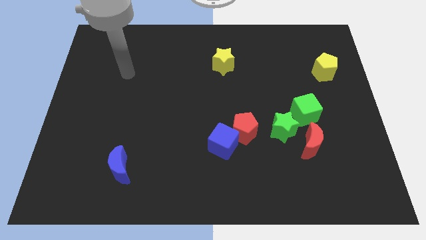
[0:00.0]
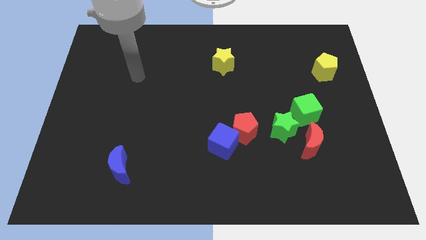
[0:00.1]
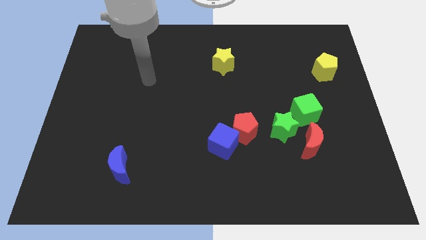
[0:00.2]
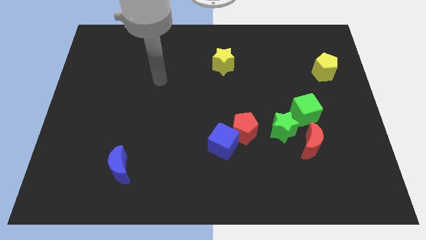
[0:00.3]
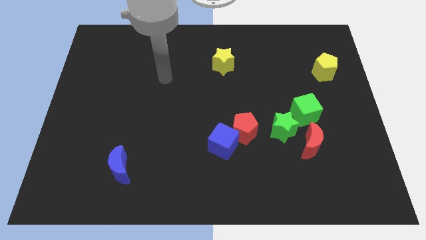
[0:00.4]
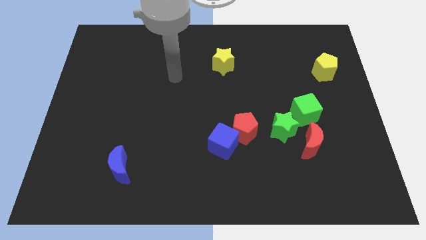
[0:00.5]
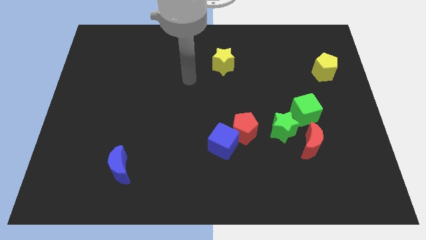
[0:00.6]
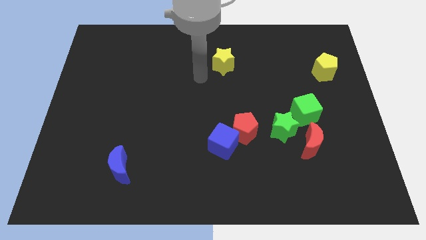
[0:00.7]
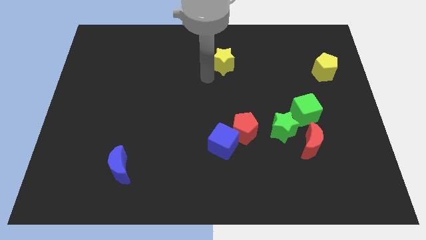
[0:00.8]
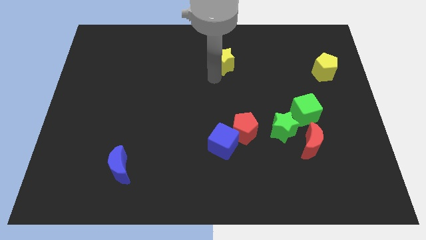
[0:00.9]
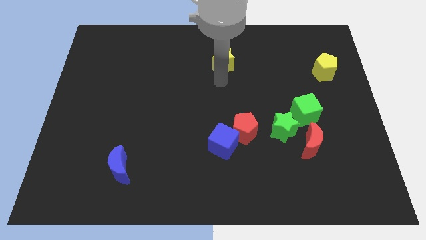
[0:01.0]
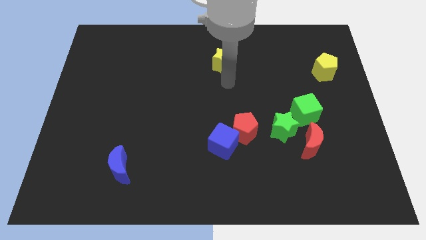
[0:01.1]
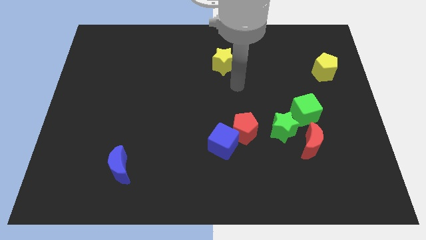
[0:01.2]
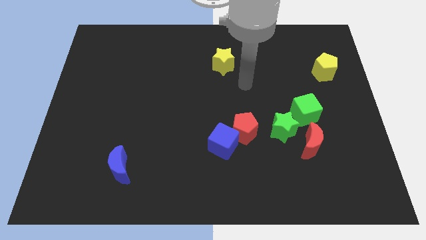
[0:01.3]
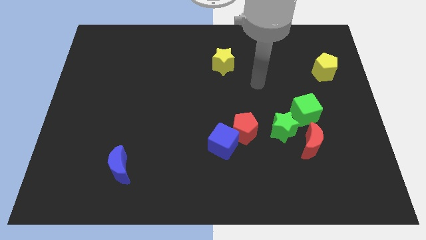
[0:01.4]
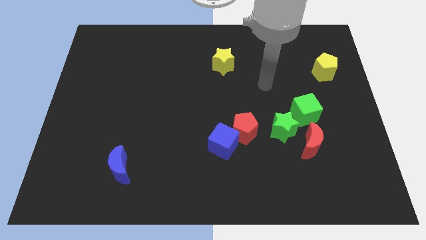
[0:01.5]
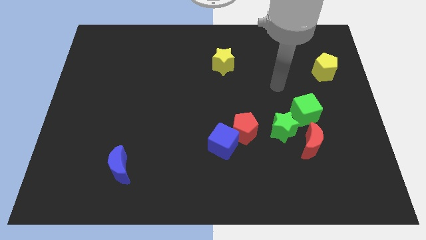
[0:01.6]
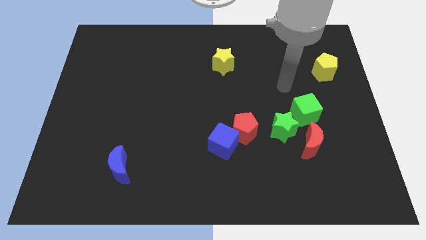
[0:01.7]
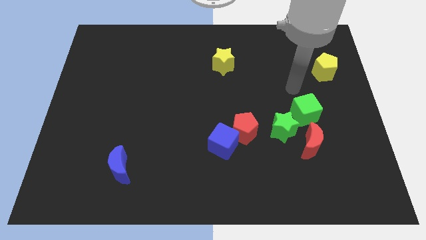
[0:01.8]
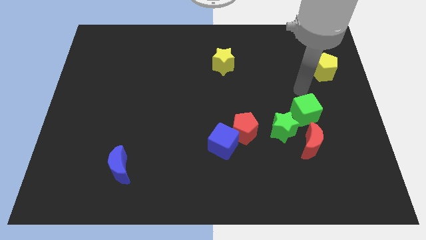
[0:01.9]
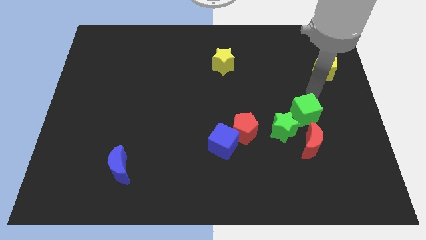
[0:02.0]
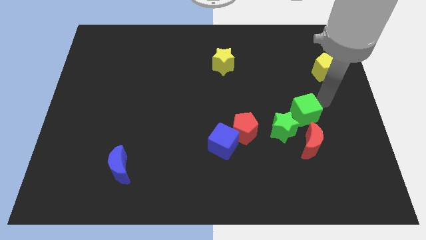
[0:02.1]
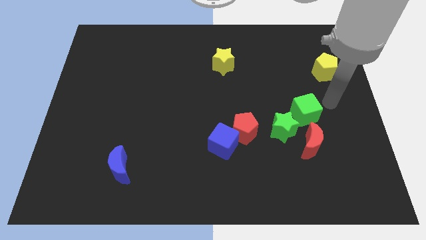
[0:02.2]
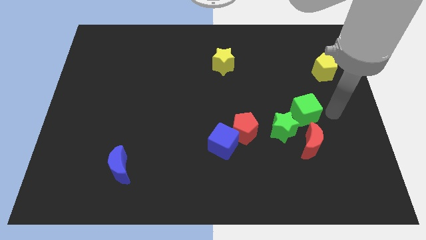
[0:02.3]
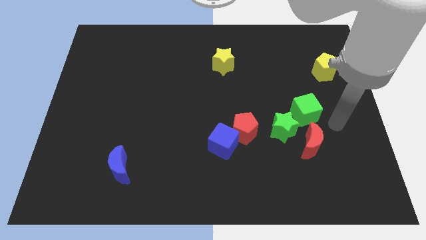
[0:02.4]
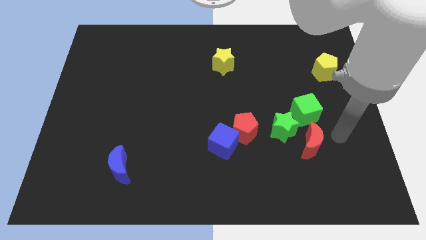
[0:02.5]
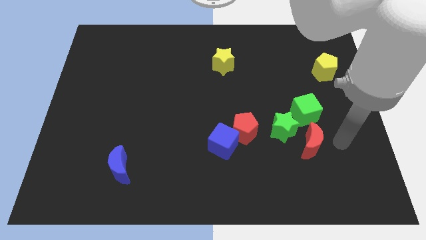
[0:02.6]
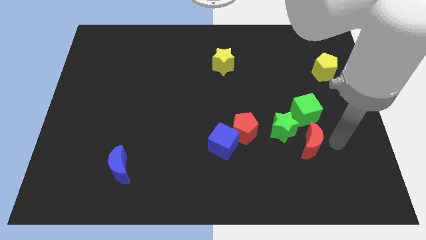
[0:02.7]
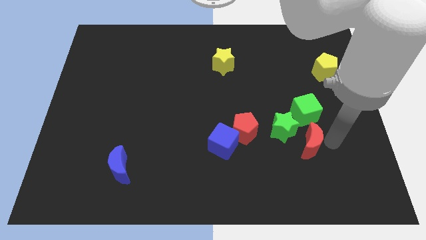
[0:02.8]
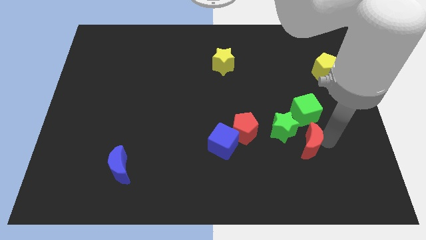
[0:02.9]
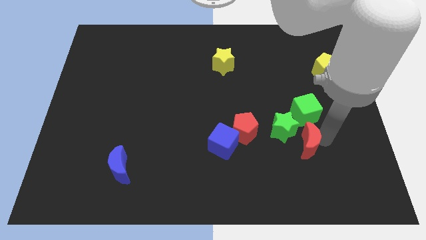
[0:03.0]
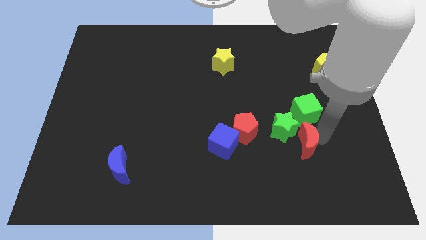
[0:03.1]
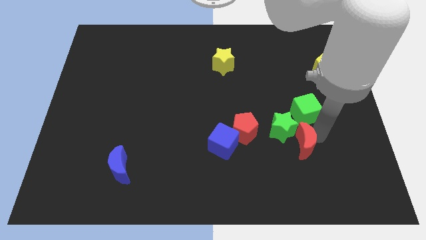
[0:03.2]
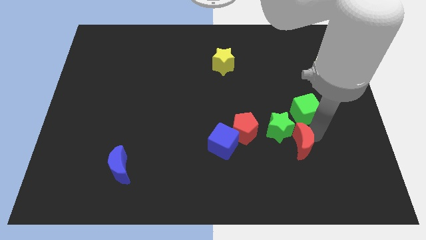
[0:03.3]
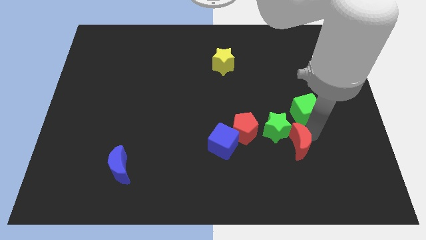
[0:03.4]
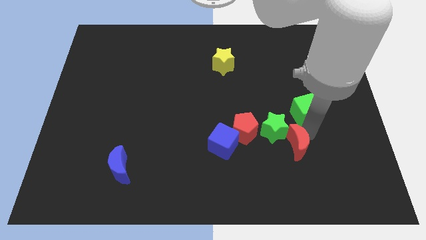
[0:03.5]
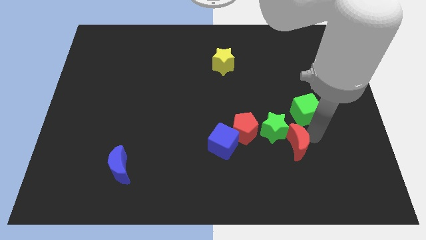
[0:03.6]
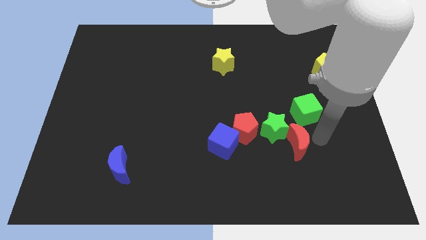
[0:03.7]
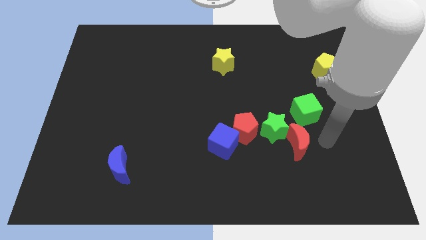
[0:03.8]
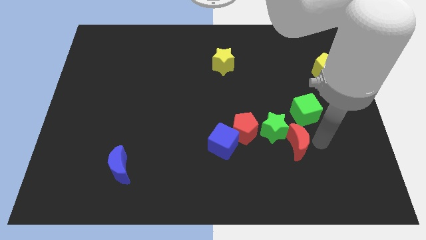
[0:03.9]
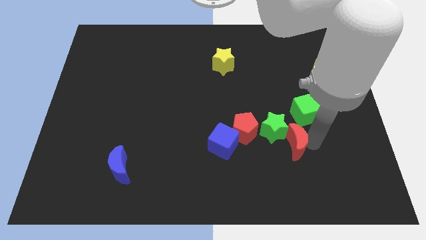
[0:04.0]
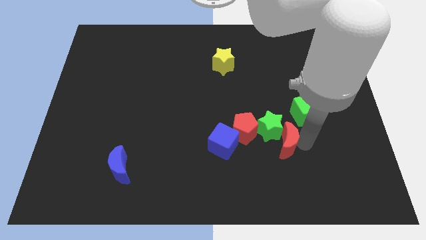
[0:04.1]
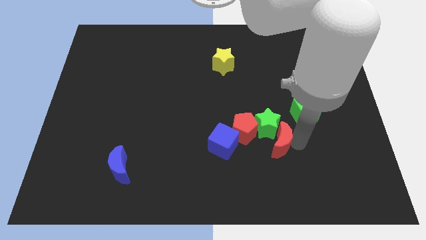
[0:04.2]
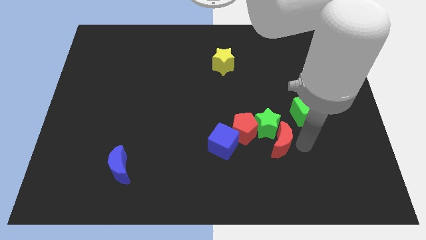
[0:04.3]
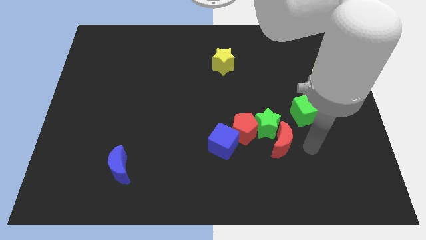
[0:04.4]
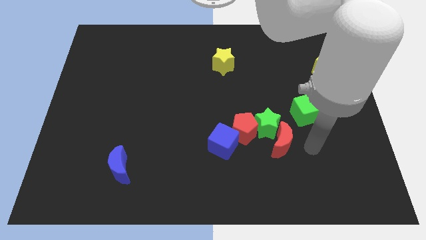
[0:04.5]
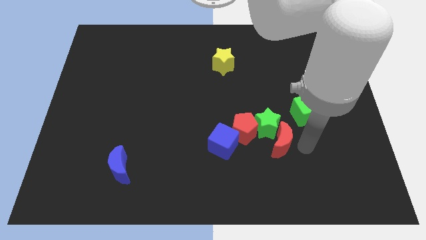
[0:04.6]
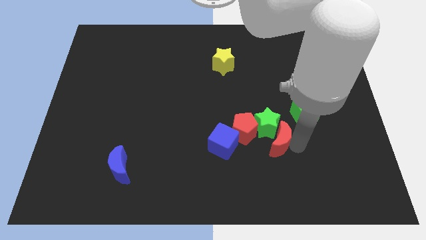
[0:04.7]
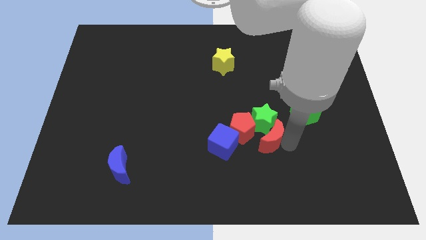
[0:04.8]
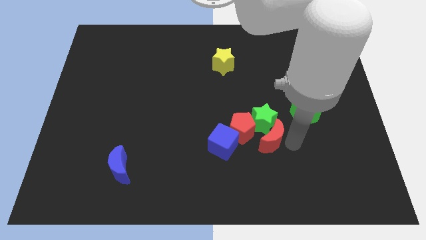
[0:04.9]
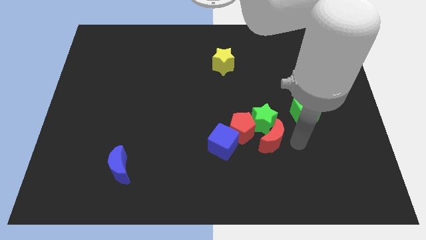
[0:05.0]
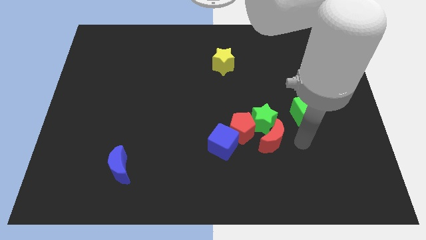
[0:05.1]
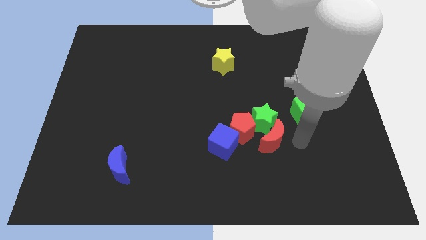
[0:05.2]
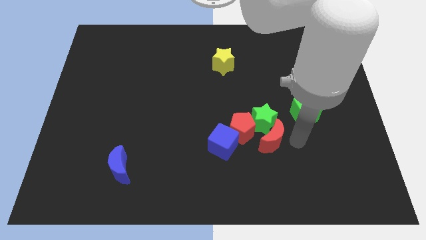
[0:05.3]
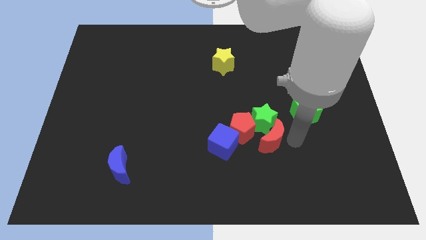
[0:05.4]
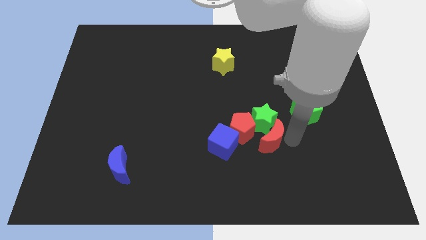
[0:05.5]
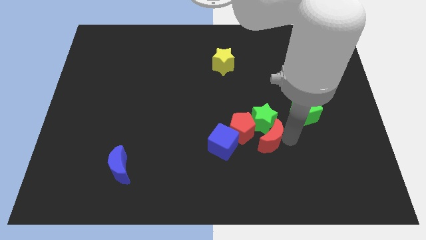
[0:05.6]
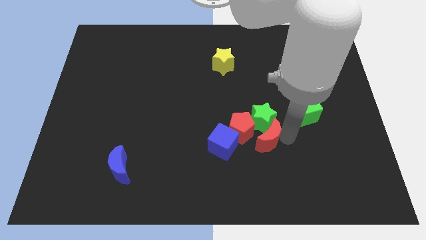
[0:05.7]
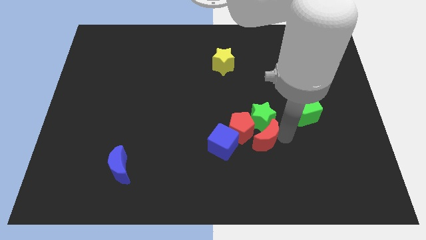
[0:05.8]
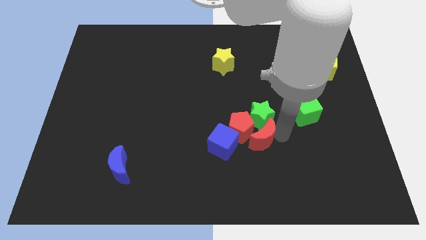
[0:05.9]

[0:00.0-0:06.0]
put the red moon to the red pentagon

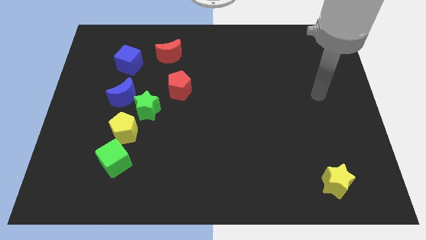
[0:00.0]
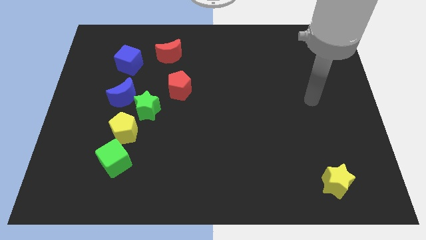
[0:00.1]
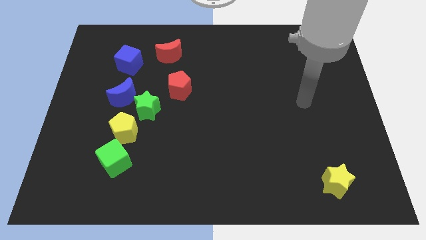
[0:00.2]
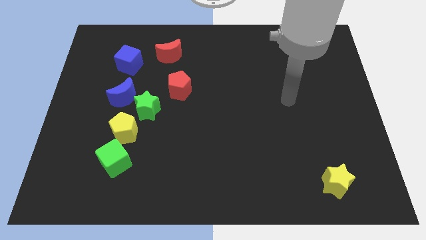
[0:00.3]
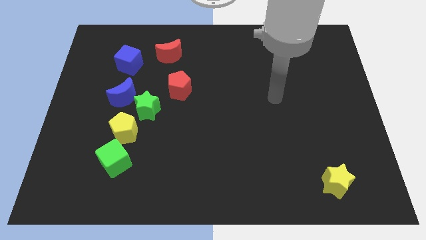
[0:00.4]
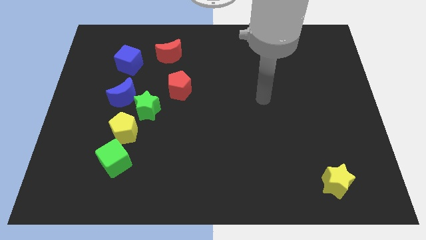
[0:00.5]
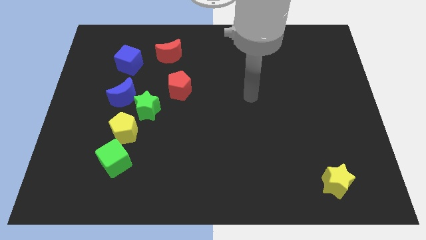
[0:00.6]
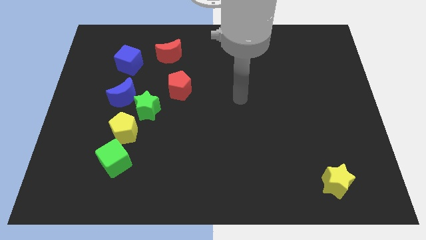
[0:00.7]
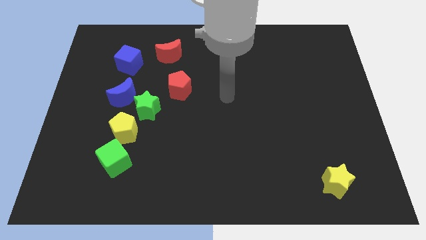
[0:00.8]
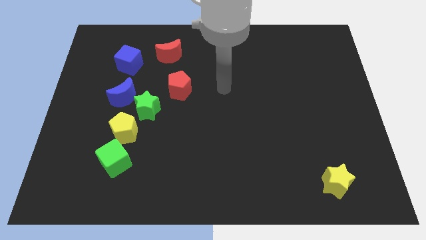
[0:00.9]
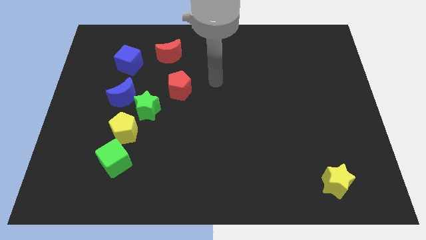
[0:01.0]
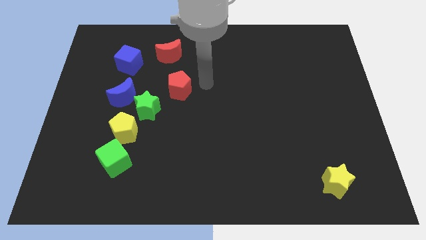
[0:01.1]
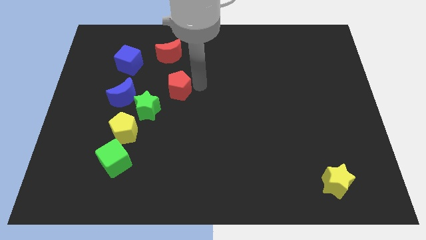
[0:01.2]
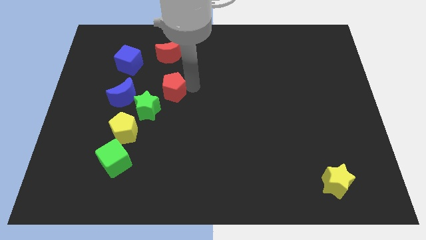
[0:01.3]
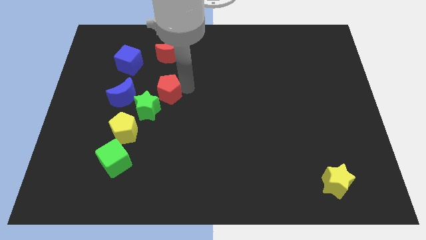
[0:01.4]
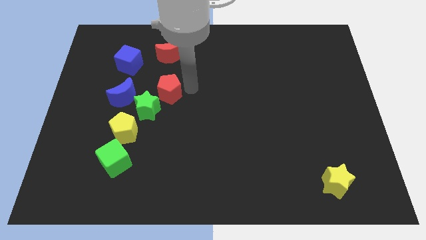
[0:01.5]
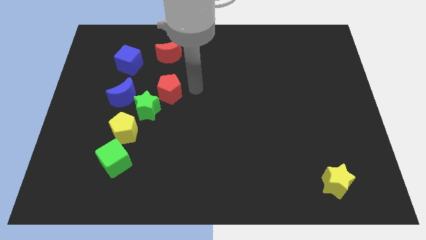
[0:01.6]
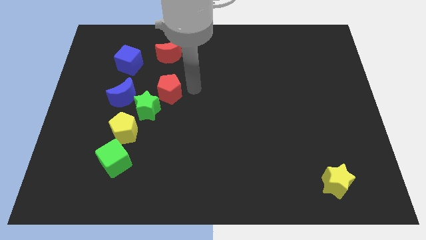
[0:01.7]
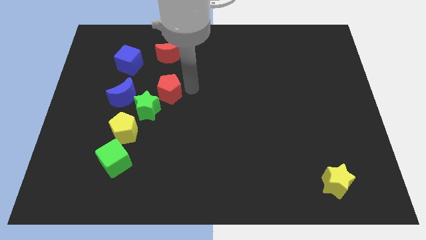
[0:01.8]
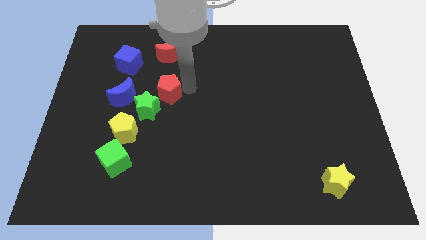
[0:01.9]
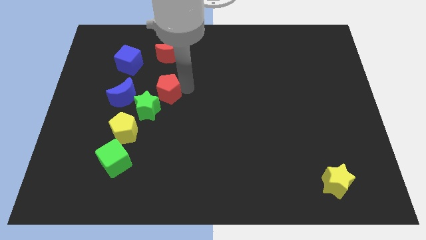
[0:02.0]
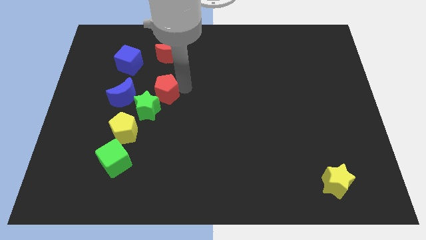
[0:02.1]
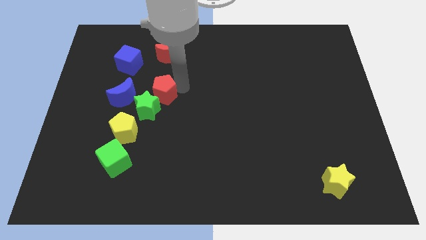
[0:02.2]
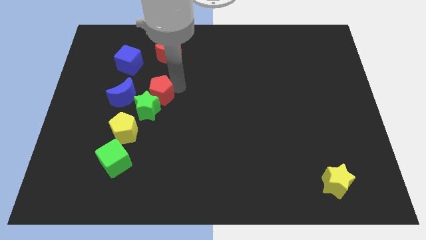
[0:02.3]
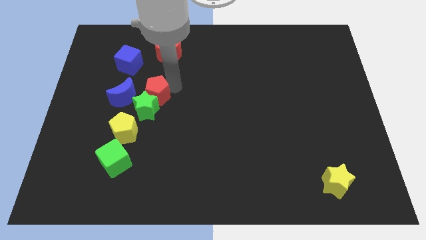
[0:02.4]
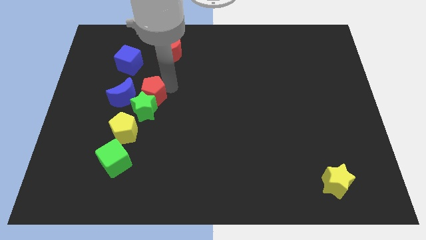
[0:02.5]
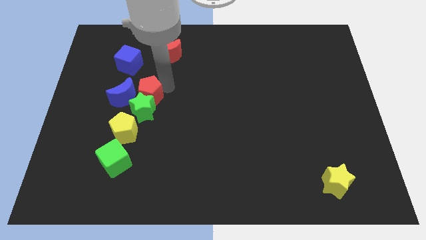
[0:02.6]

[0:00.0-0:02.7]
slide the red pentagon to the blue moon
